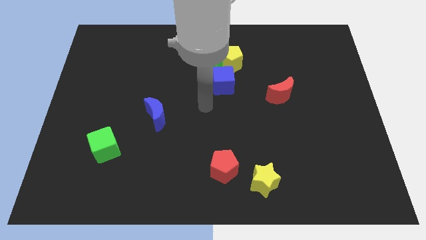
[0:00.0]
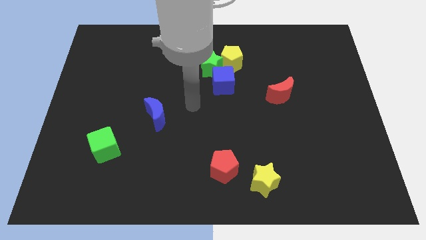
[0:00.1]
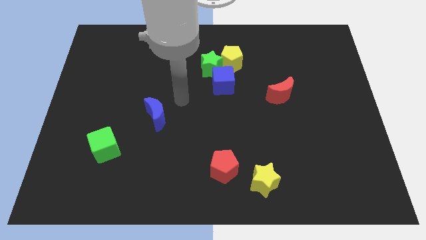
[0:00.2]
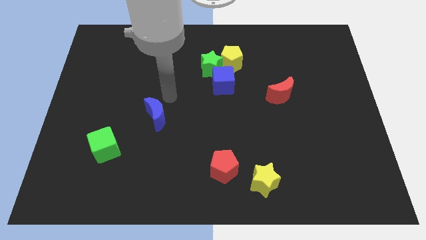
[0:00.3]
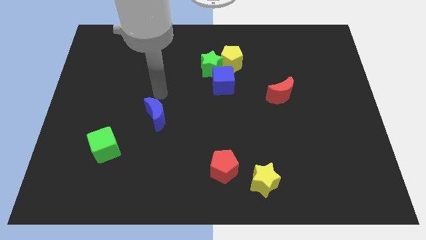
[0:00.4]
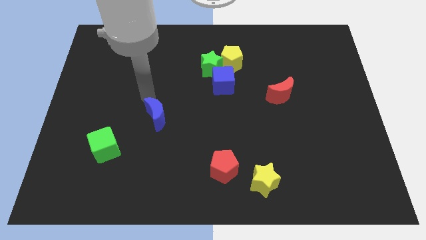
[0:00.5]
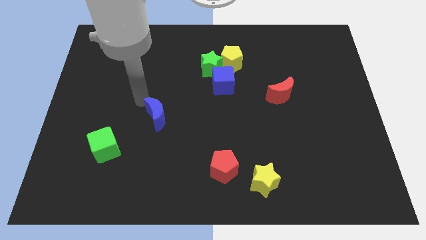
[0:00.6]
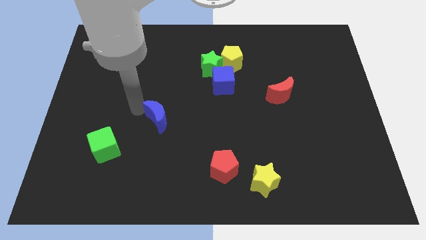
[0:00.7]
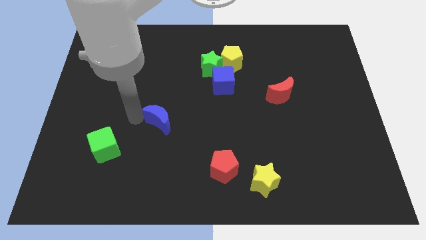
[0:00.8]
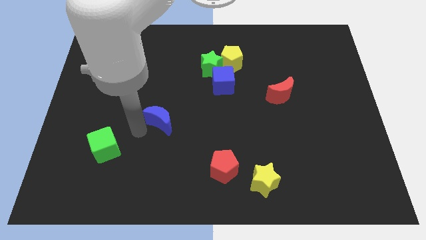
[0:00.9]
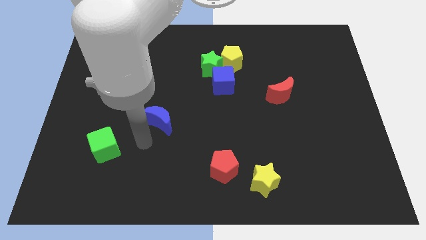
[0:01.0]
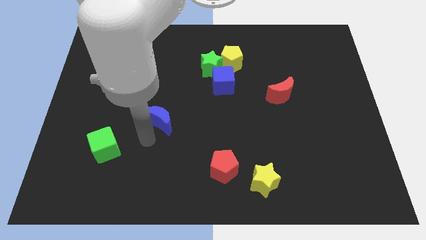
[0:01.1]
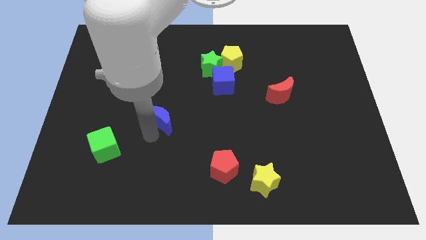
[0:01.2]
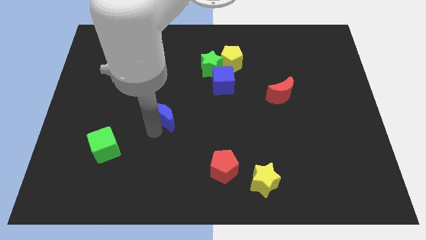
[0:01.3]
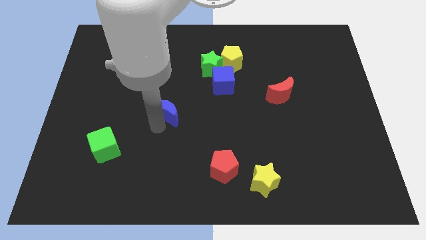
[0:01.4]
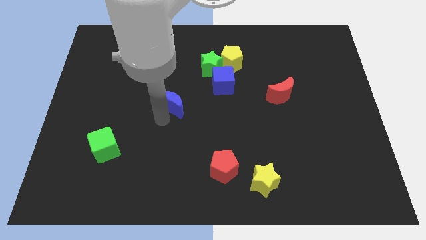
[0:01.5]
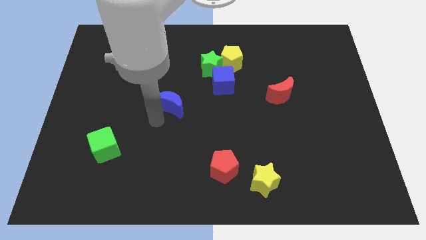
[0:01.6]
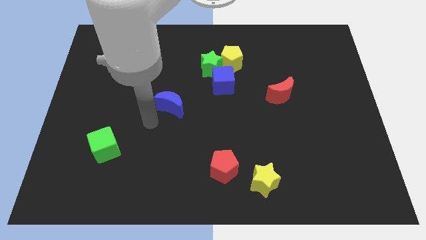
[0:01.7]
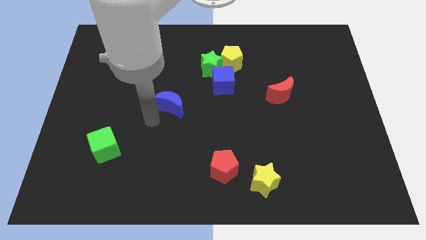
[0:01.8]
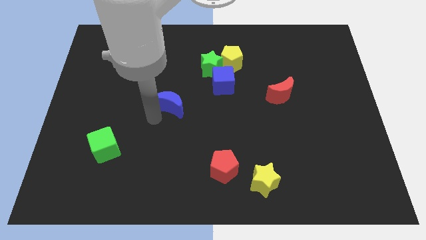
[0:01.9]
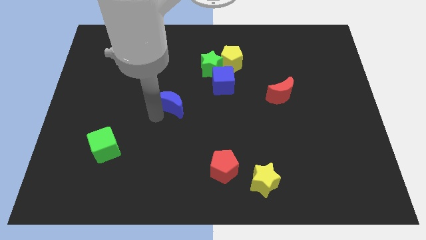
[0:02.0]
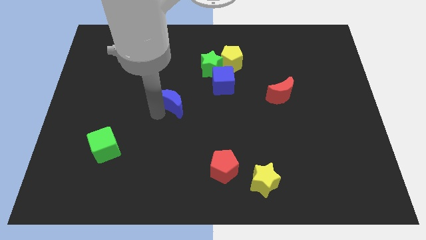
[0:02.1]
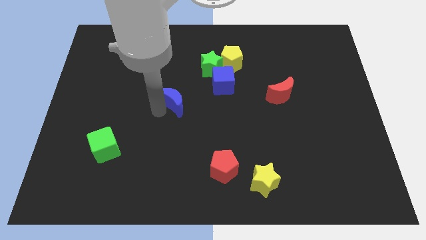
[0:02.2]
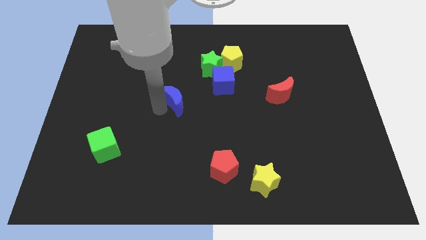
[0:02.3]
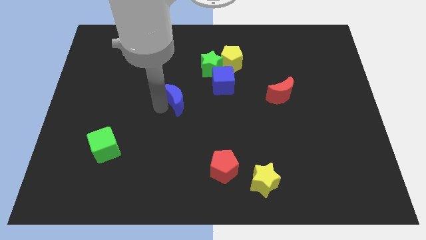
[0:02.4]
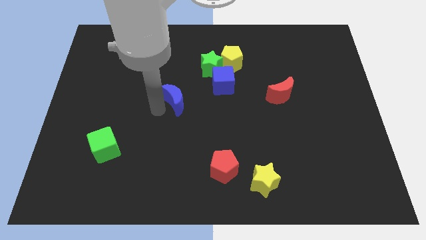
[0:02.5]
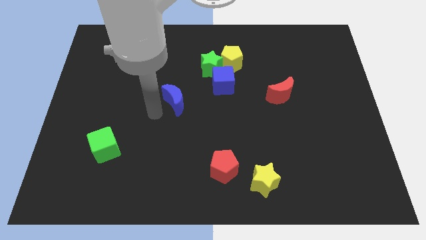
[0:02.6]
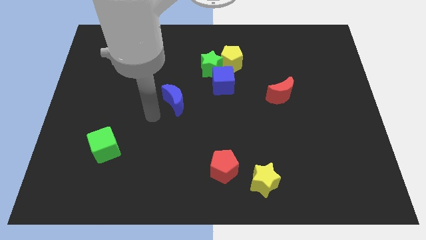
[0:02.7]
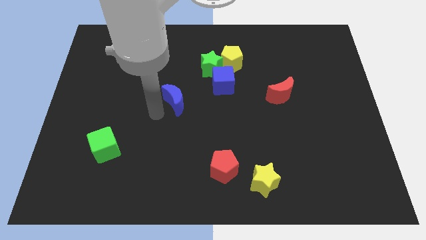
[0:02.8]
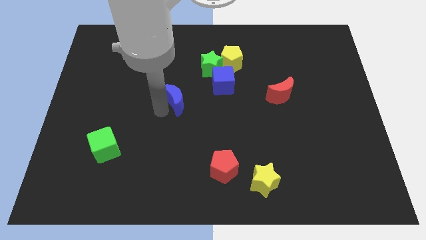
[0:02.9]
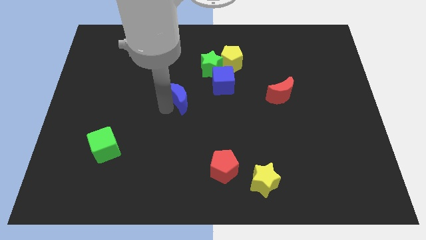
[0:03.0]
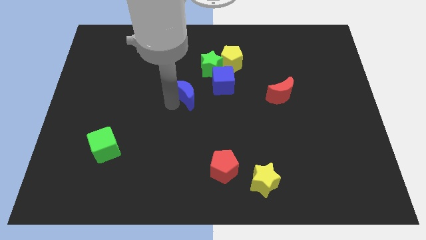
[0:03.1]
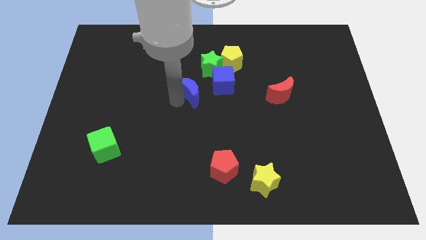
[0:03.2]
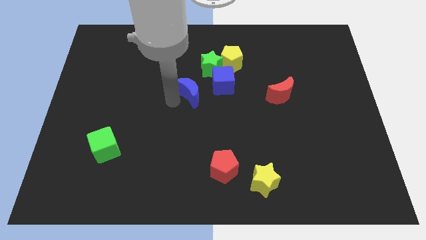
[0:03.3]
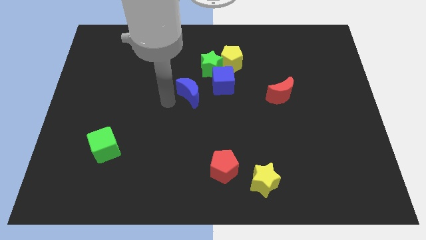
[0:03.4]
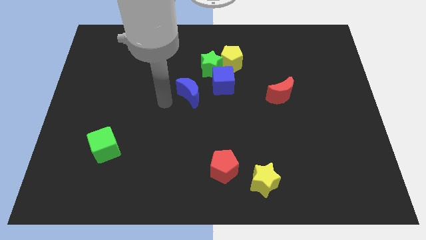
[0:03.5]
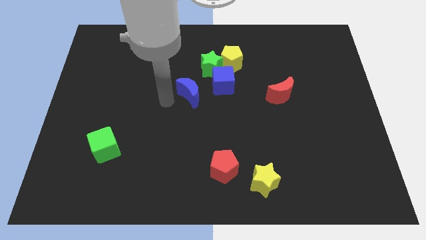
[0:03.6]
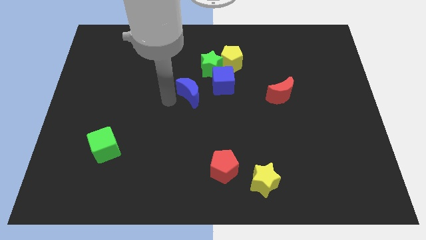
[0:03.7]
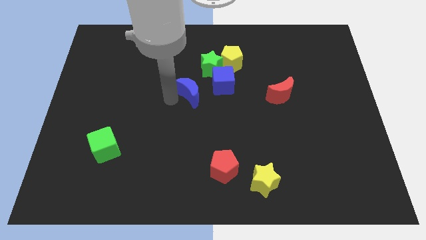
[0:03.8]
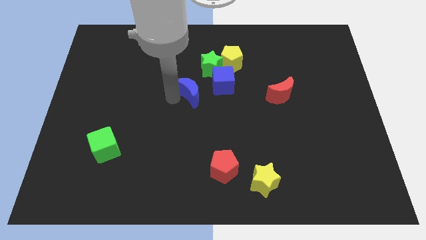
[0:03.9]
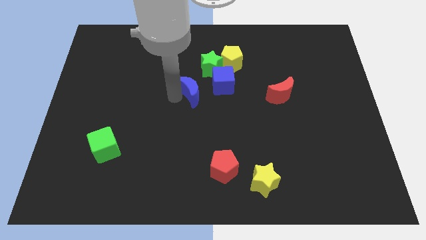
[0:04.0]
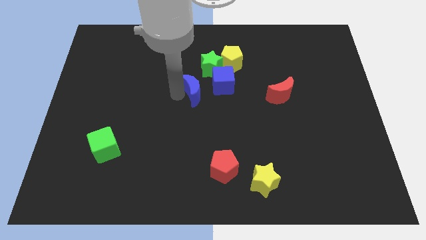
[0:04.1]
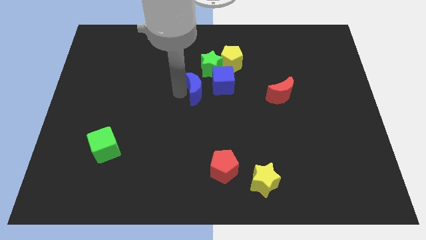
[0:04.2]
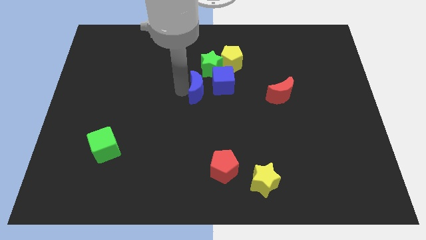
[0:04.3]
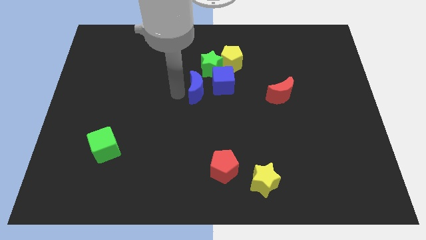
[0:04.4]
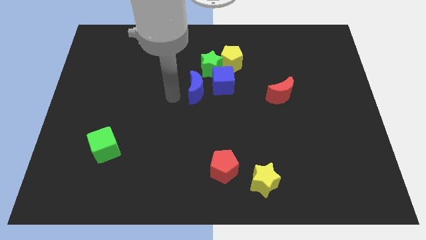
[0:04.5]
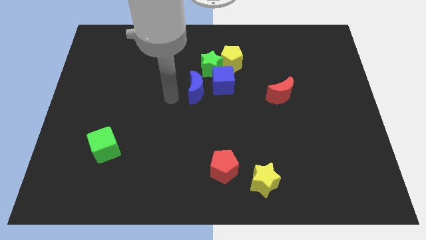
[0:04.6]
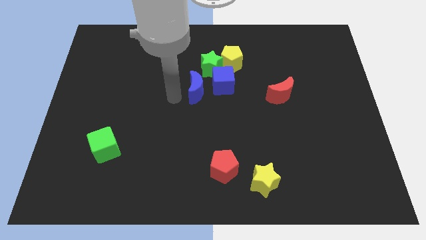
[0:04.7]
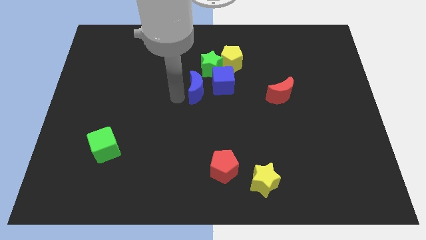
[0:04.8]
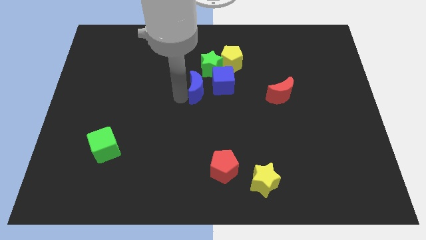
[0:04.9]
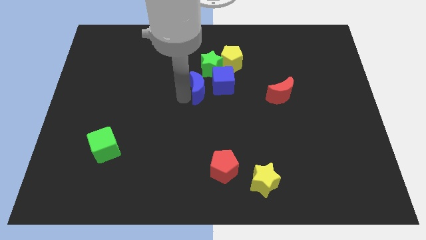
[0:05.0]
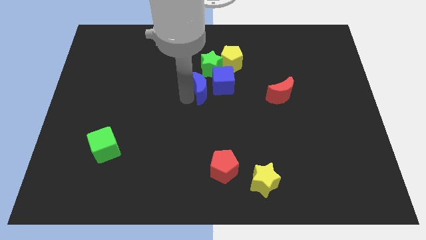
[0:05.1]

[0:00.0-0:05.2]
push the blue moon to the blue cube

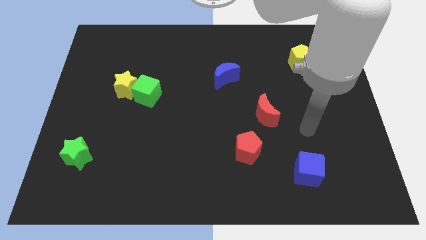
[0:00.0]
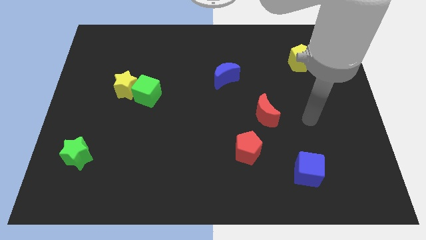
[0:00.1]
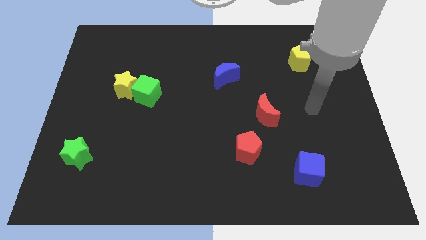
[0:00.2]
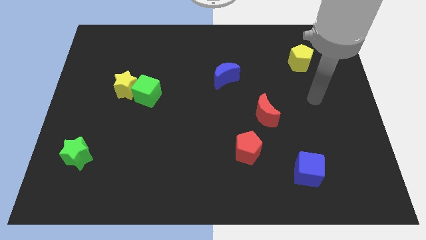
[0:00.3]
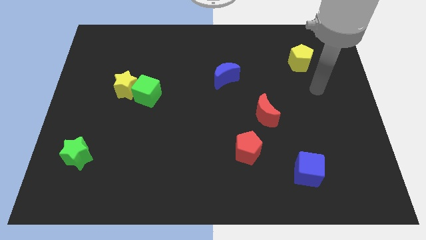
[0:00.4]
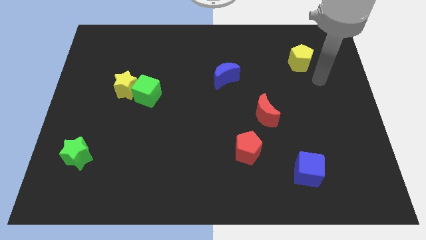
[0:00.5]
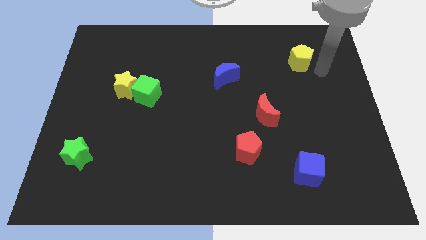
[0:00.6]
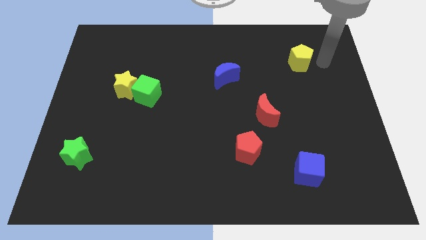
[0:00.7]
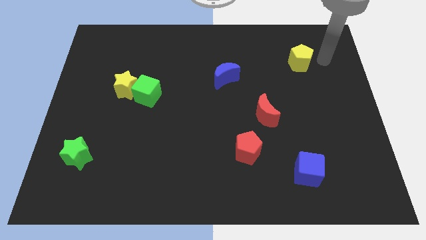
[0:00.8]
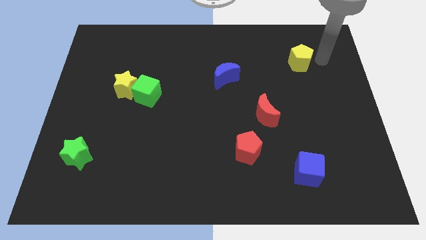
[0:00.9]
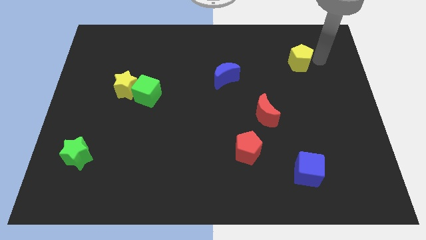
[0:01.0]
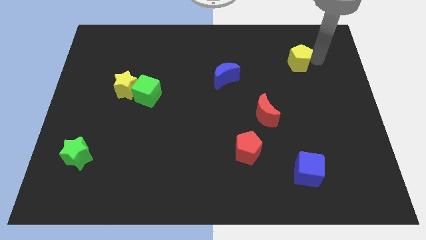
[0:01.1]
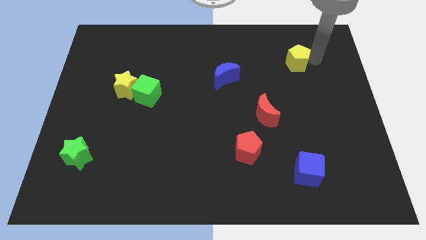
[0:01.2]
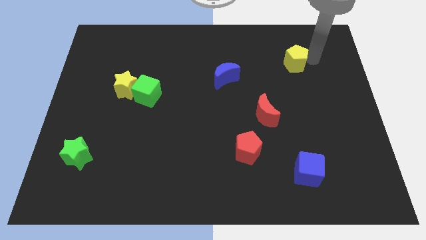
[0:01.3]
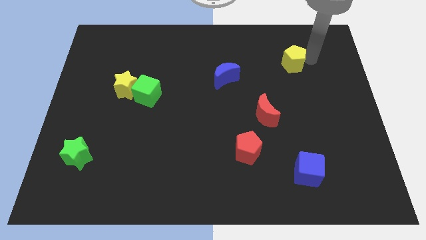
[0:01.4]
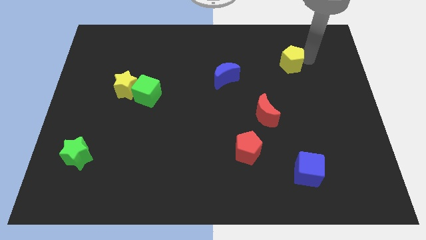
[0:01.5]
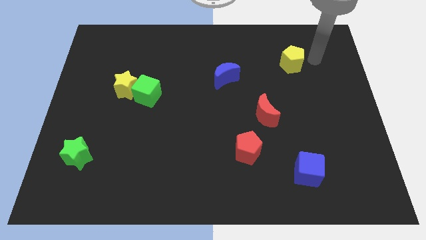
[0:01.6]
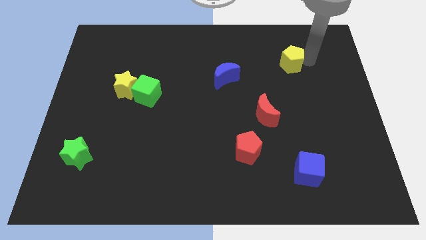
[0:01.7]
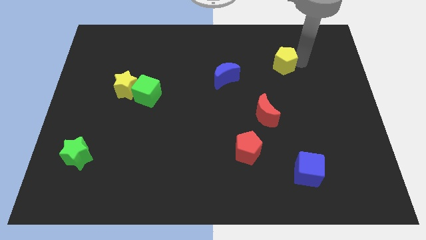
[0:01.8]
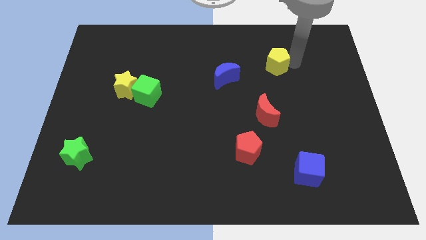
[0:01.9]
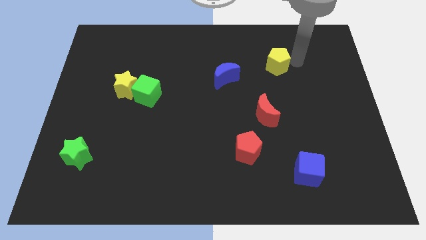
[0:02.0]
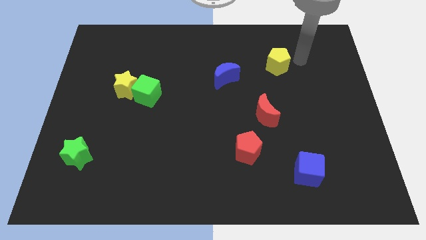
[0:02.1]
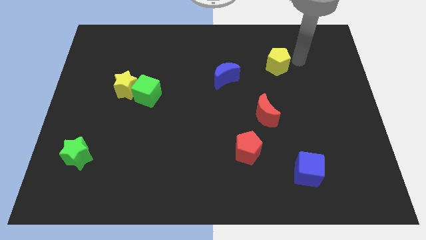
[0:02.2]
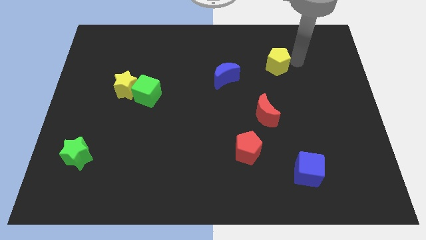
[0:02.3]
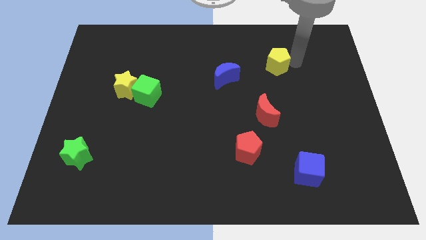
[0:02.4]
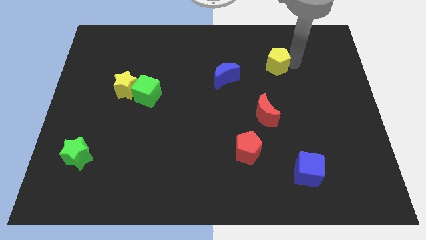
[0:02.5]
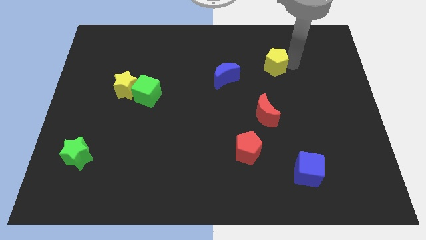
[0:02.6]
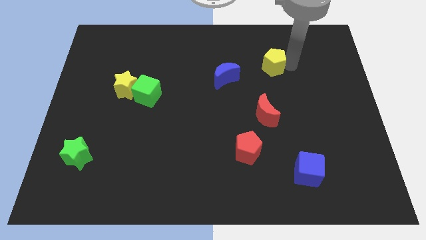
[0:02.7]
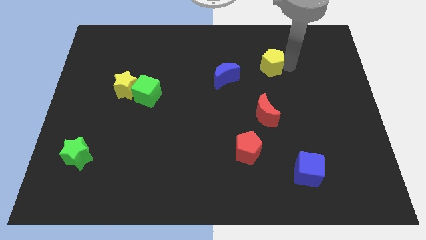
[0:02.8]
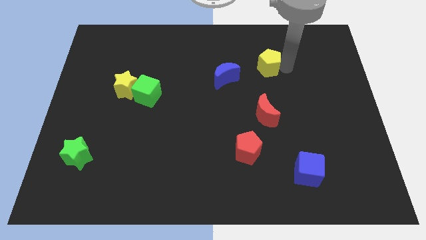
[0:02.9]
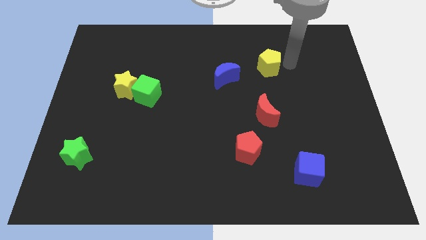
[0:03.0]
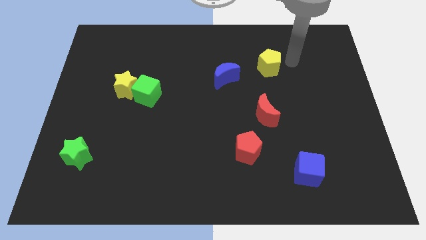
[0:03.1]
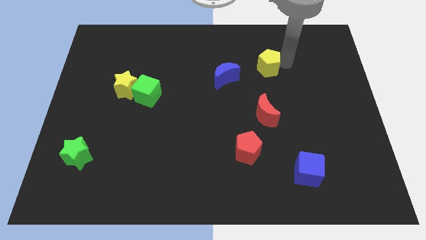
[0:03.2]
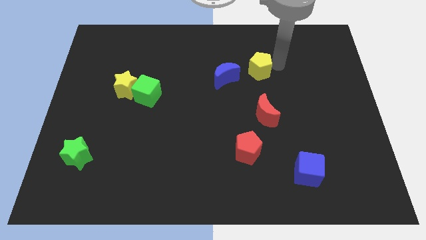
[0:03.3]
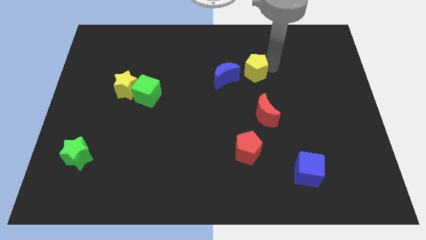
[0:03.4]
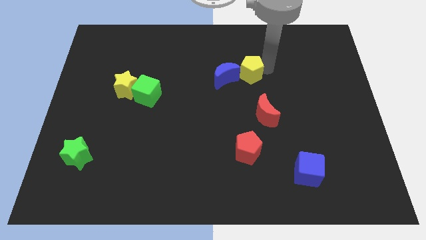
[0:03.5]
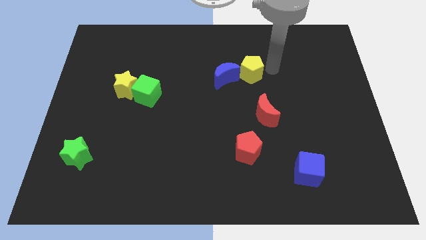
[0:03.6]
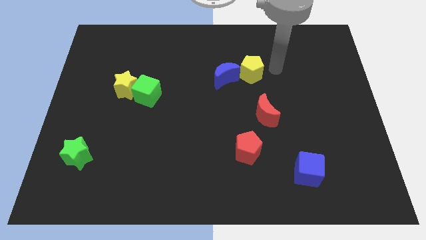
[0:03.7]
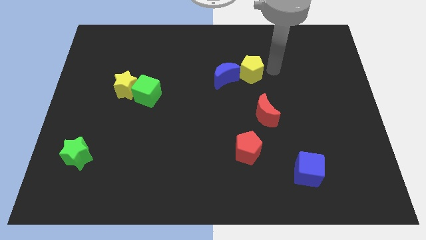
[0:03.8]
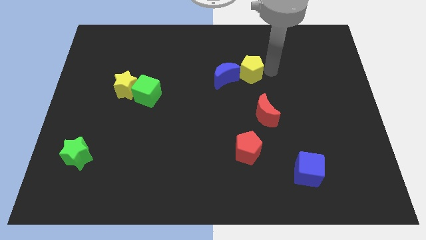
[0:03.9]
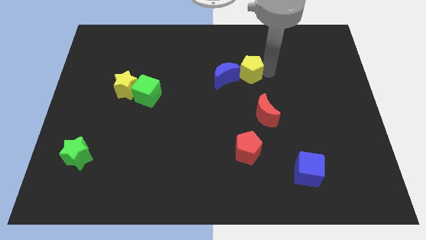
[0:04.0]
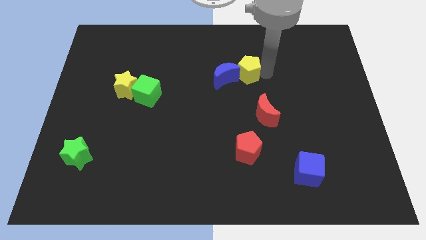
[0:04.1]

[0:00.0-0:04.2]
move the yellow pentagon towards the blue moon
